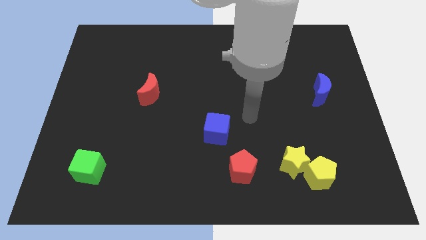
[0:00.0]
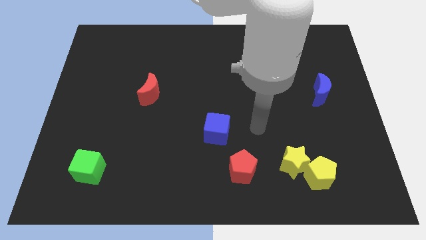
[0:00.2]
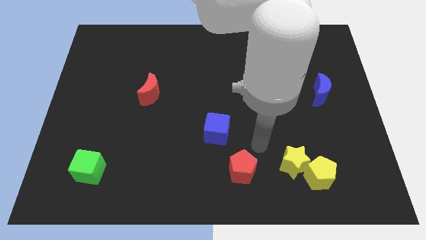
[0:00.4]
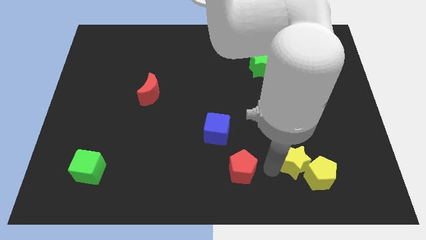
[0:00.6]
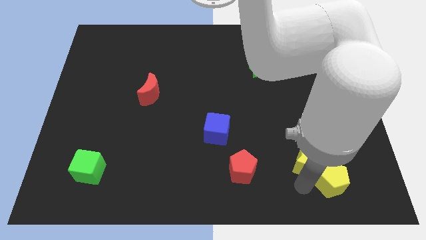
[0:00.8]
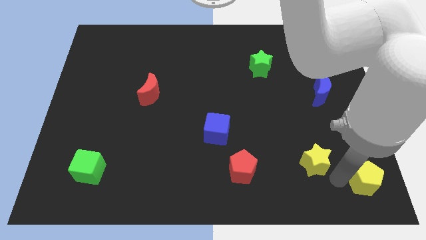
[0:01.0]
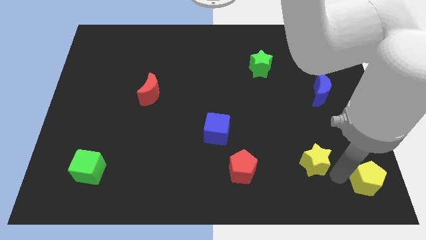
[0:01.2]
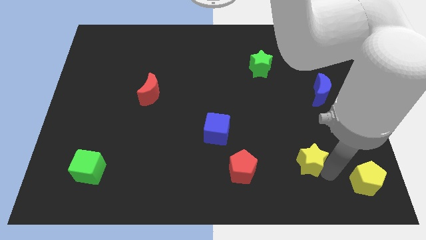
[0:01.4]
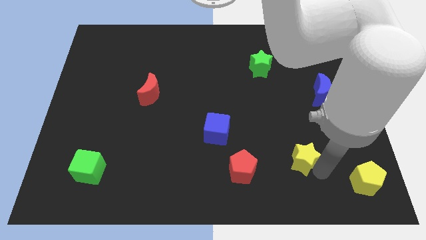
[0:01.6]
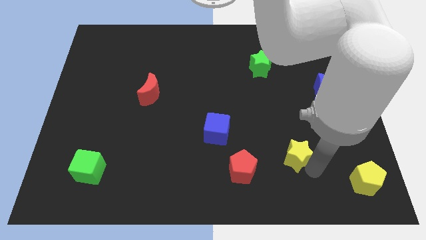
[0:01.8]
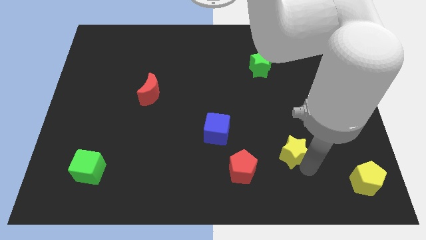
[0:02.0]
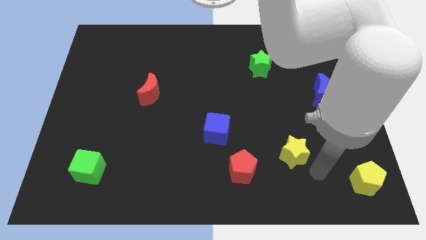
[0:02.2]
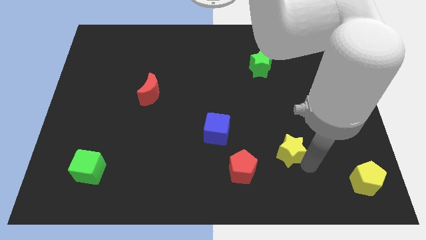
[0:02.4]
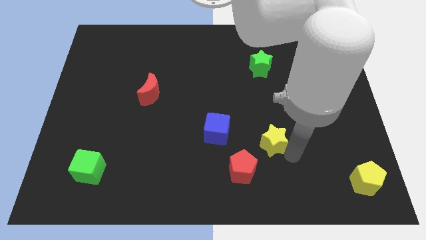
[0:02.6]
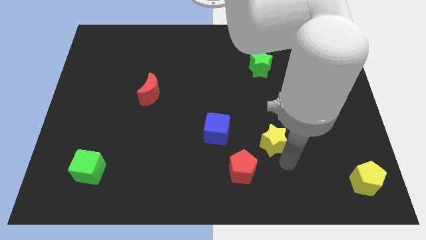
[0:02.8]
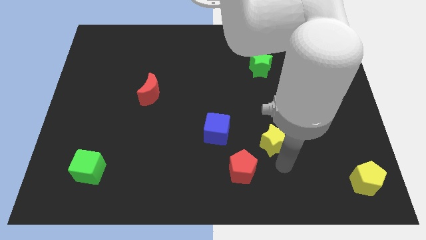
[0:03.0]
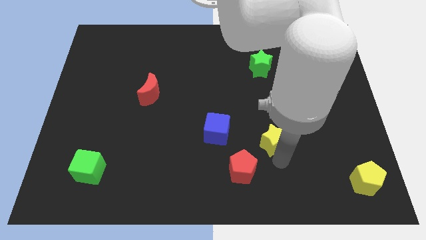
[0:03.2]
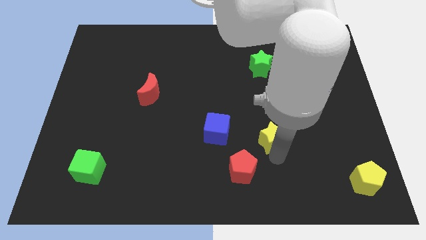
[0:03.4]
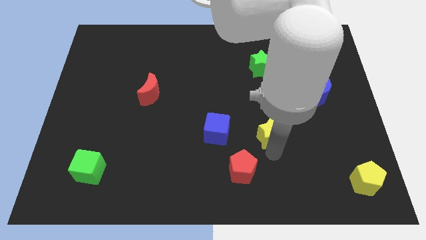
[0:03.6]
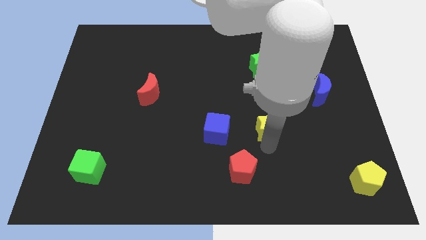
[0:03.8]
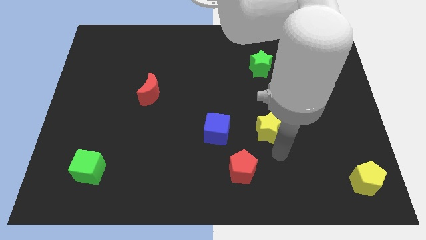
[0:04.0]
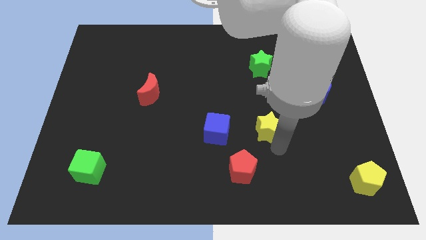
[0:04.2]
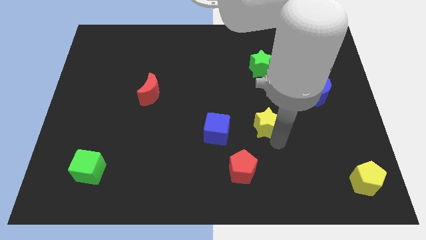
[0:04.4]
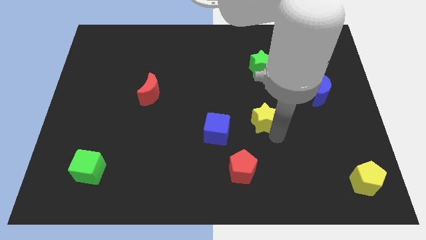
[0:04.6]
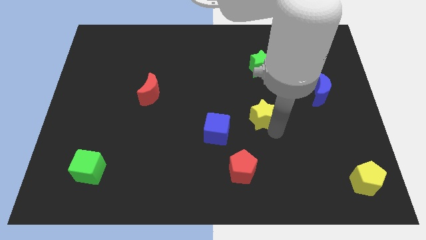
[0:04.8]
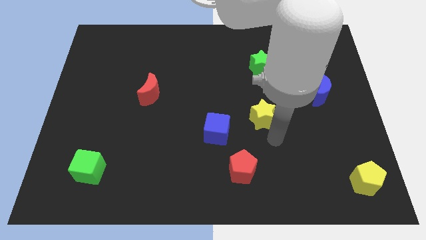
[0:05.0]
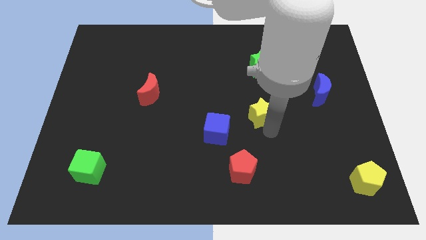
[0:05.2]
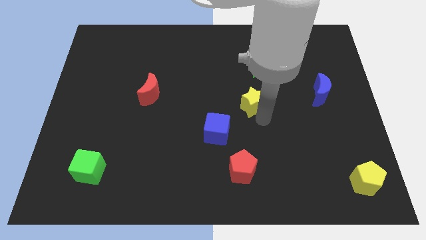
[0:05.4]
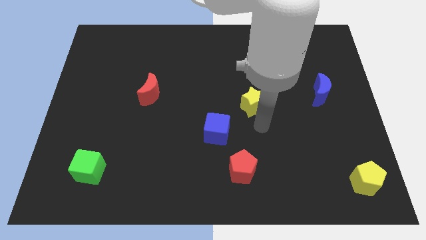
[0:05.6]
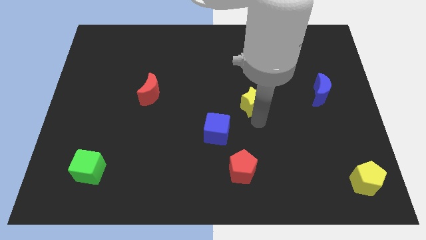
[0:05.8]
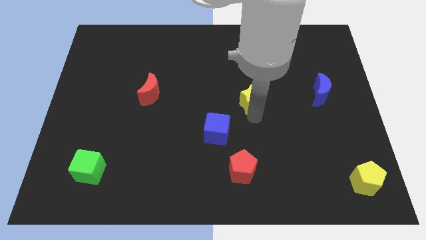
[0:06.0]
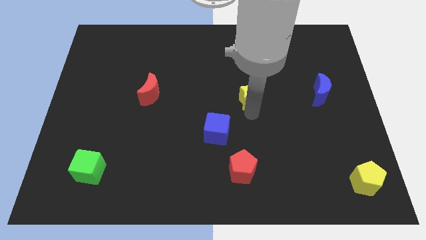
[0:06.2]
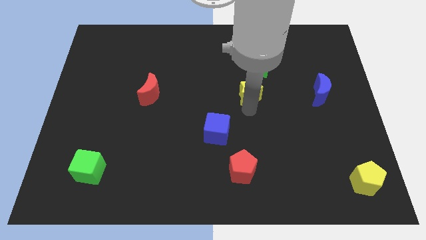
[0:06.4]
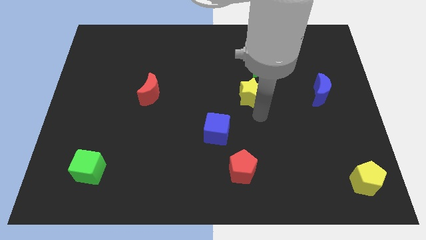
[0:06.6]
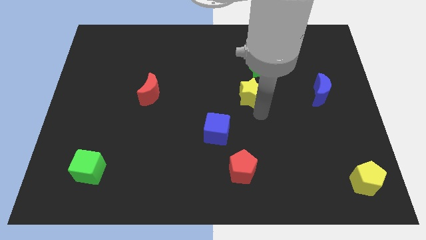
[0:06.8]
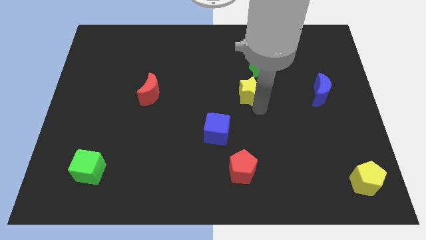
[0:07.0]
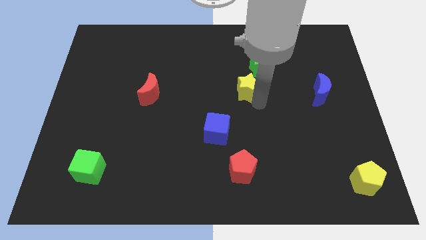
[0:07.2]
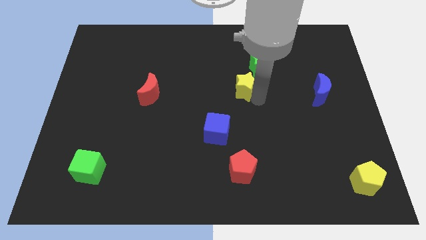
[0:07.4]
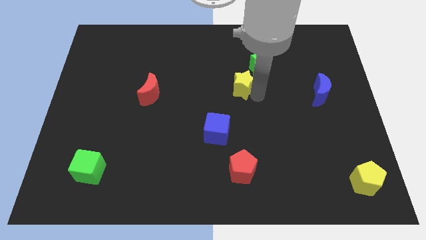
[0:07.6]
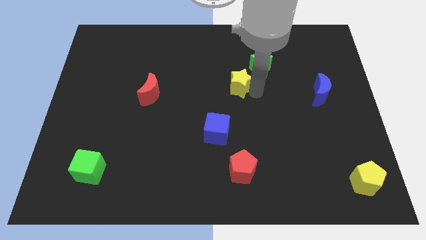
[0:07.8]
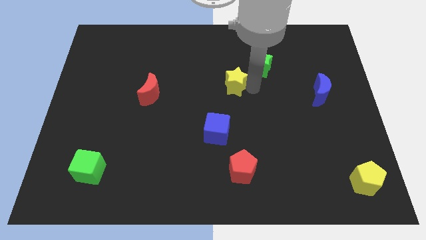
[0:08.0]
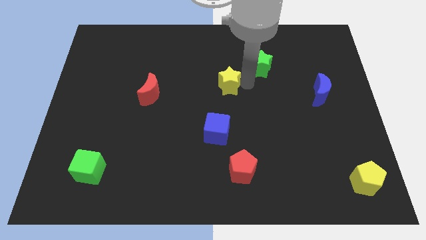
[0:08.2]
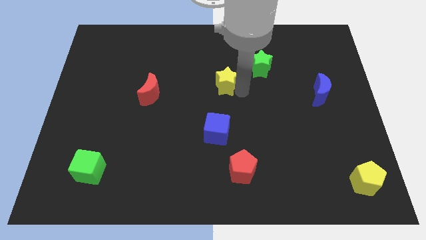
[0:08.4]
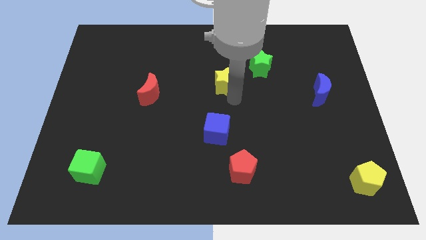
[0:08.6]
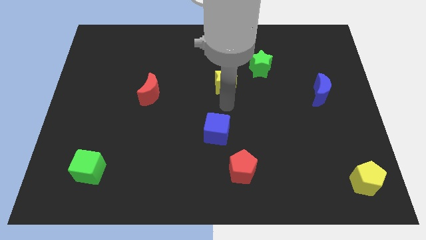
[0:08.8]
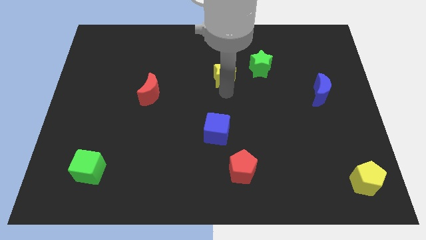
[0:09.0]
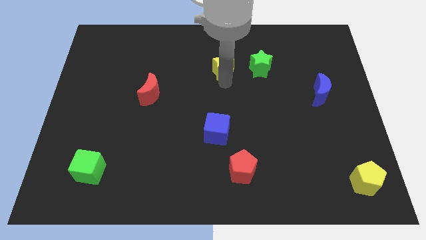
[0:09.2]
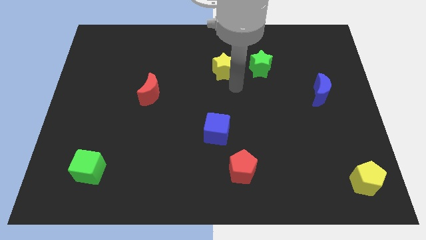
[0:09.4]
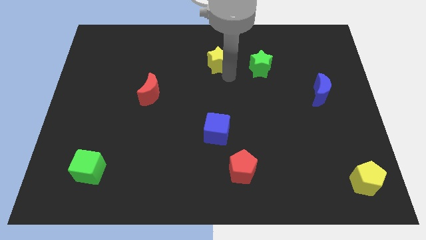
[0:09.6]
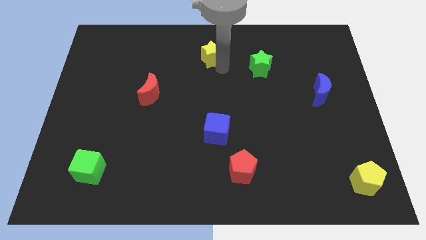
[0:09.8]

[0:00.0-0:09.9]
put the yellow star to the top side

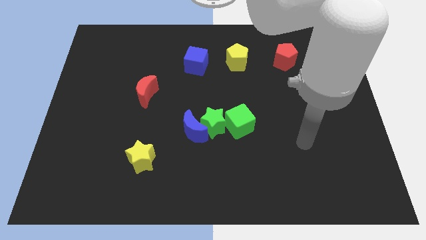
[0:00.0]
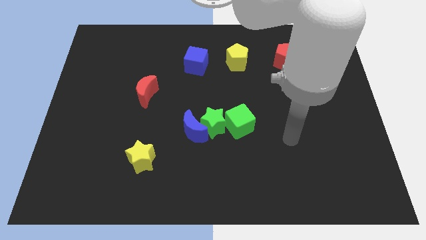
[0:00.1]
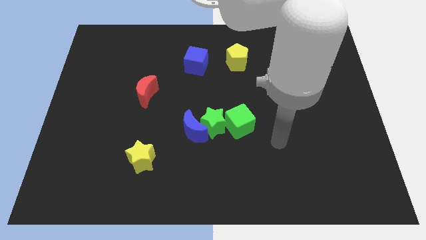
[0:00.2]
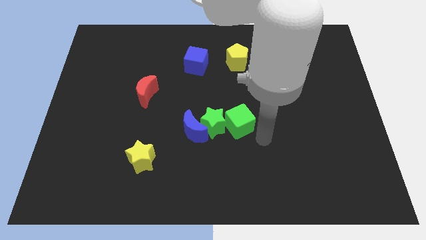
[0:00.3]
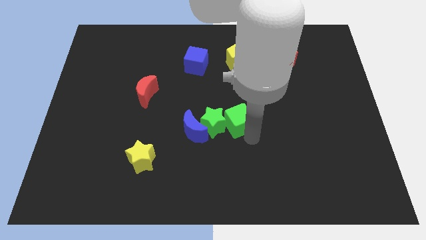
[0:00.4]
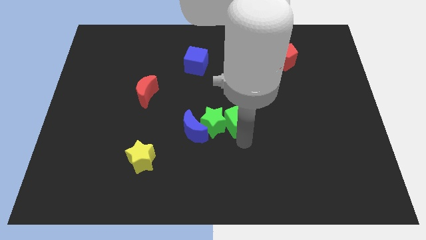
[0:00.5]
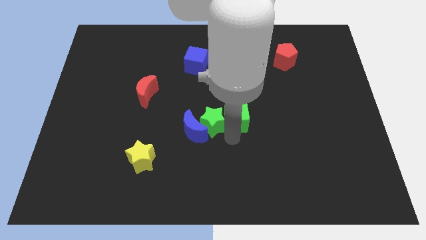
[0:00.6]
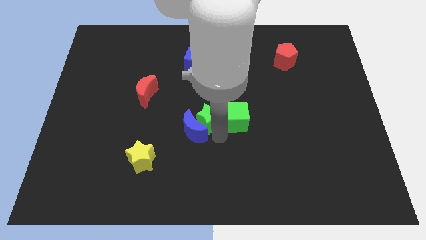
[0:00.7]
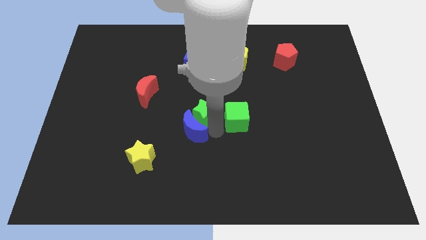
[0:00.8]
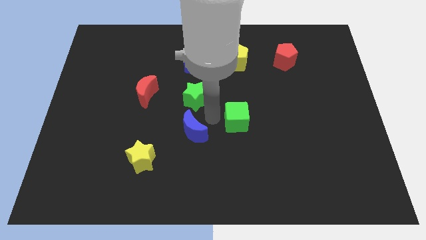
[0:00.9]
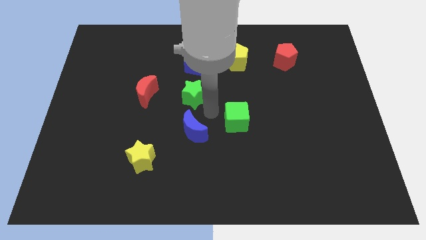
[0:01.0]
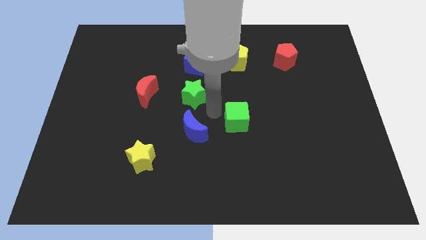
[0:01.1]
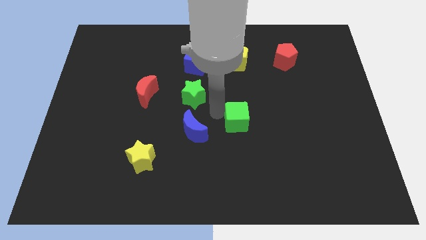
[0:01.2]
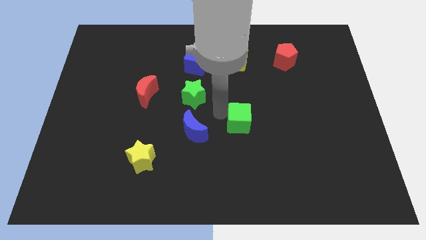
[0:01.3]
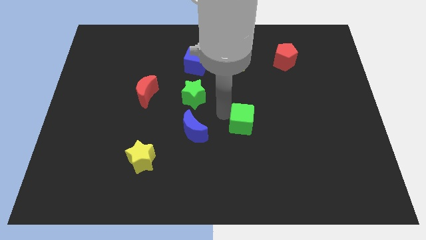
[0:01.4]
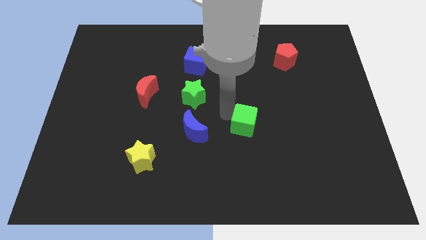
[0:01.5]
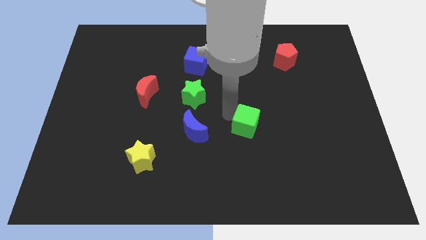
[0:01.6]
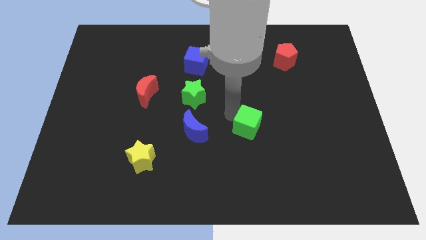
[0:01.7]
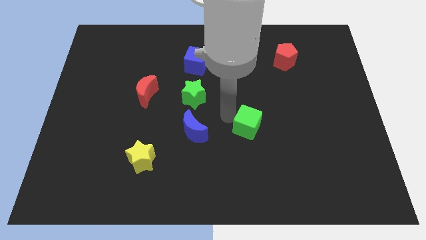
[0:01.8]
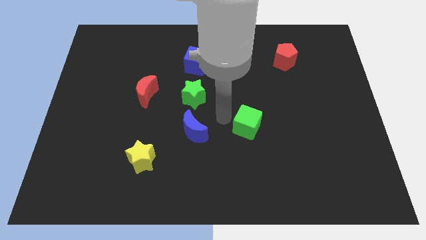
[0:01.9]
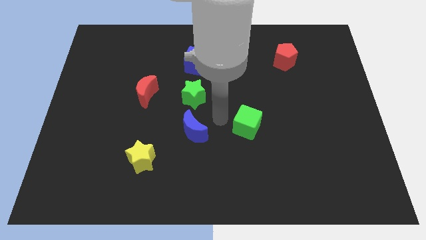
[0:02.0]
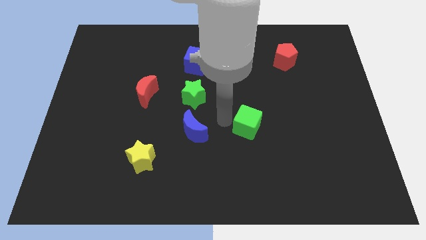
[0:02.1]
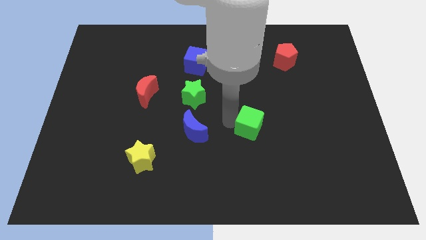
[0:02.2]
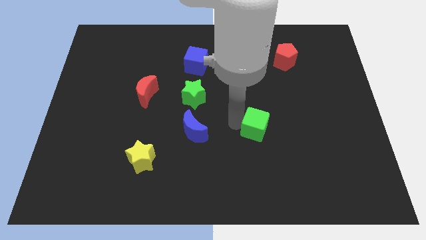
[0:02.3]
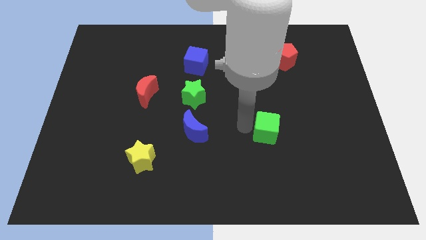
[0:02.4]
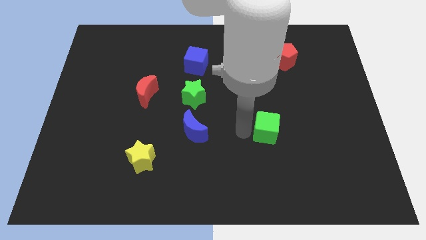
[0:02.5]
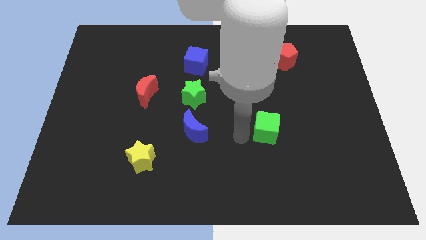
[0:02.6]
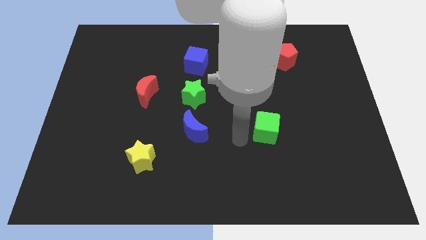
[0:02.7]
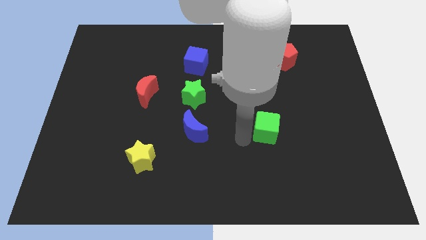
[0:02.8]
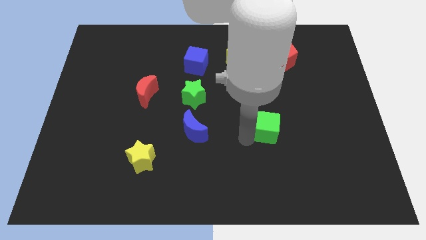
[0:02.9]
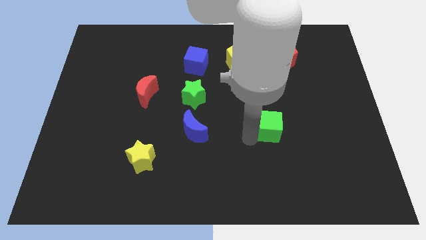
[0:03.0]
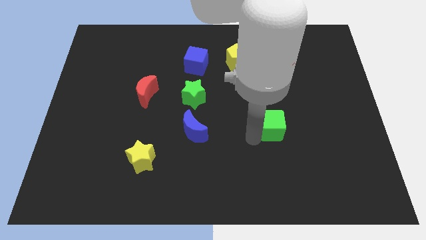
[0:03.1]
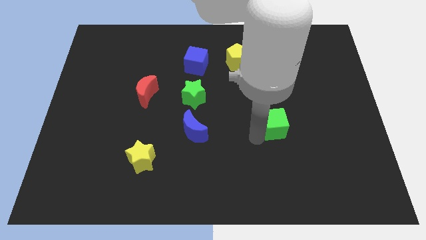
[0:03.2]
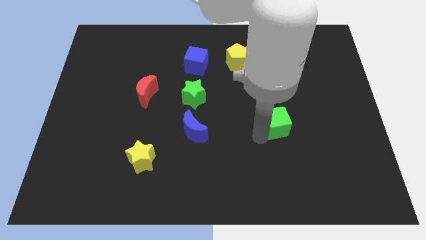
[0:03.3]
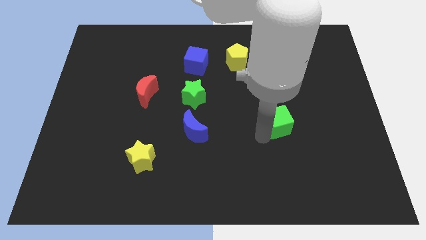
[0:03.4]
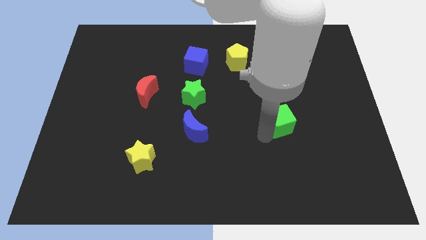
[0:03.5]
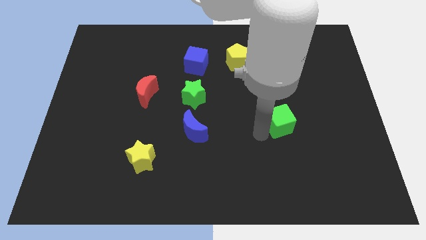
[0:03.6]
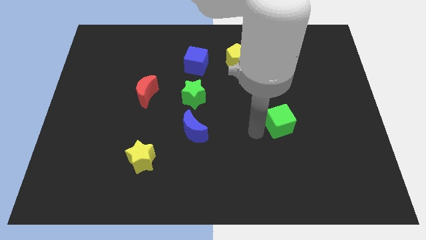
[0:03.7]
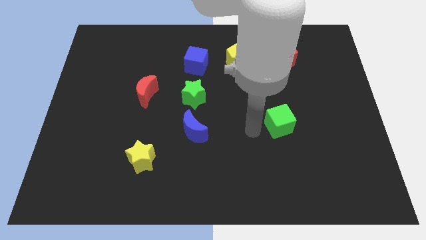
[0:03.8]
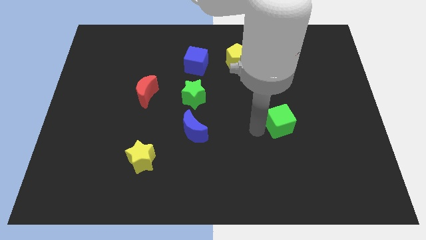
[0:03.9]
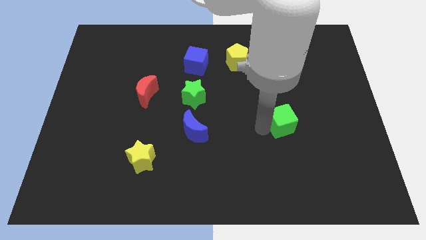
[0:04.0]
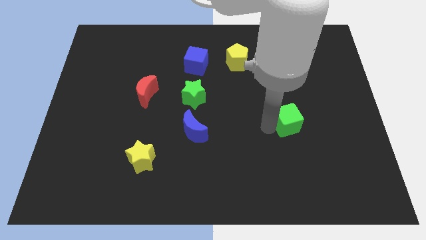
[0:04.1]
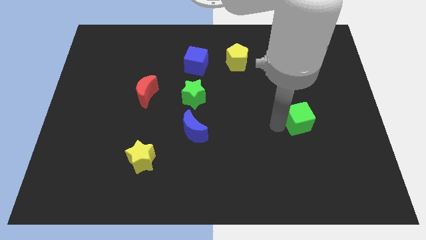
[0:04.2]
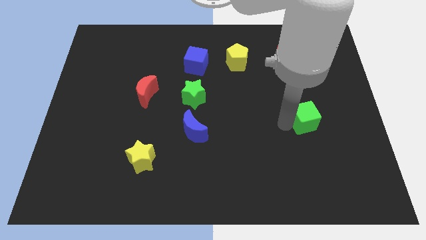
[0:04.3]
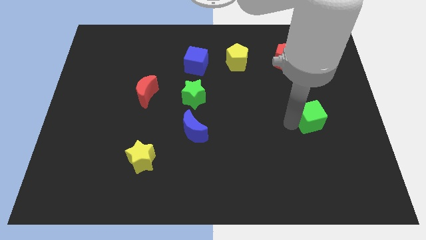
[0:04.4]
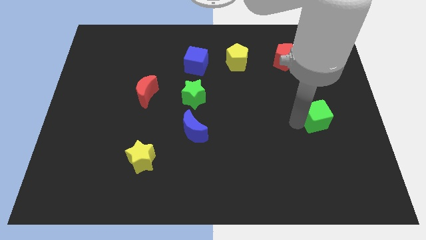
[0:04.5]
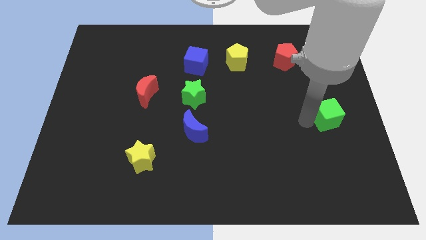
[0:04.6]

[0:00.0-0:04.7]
push the green cube to the right side of the board
